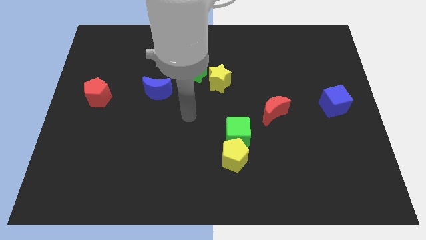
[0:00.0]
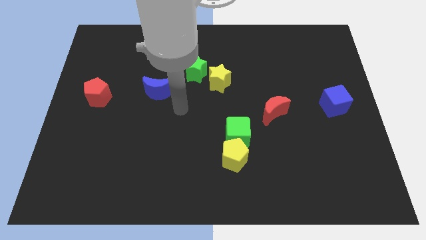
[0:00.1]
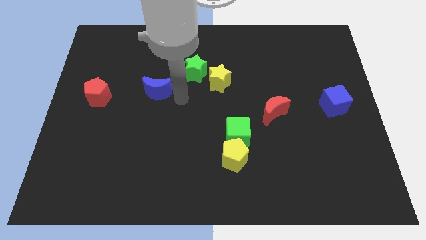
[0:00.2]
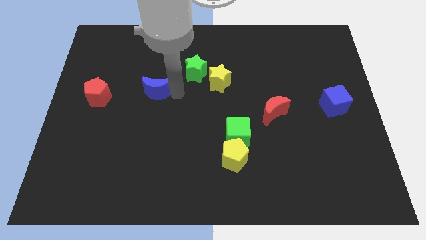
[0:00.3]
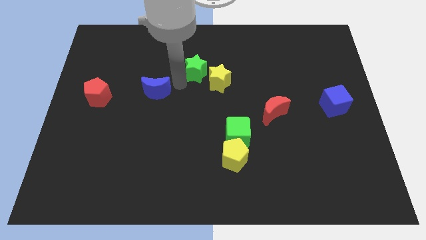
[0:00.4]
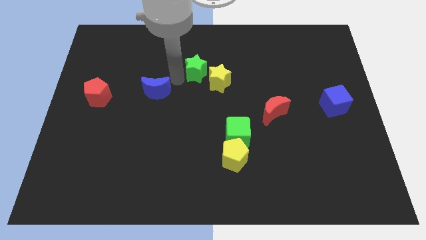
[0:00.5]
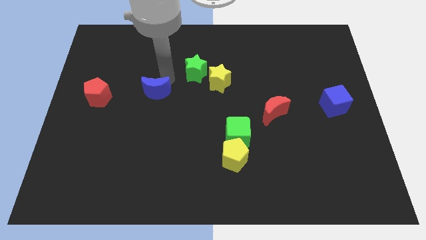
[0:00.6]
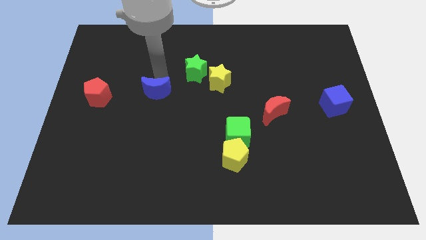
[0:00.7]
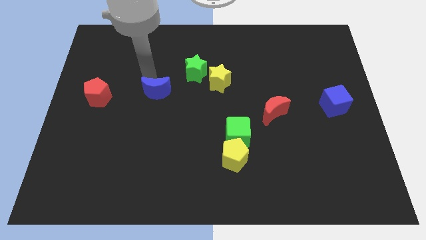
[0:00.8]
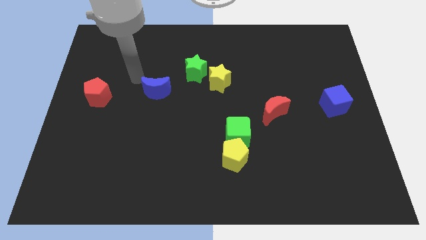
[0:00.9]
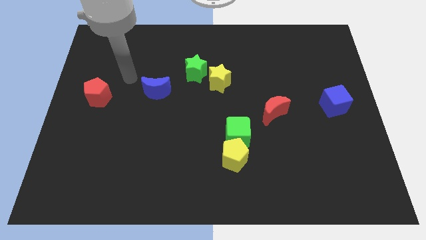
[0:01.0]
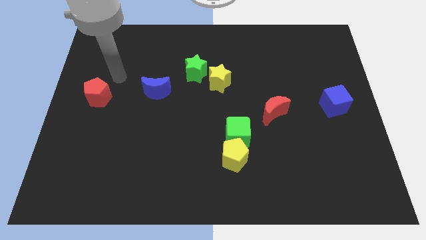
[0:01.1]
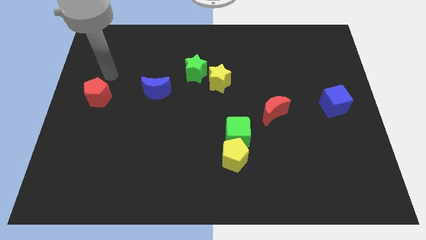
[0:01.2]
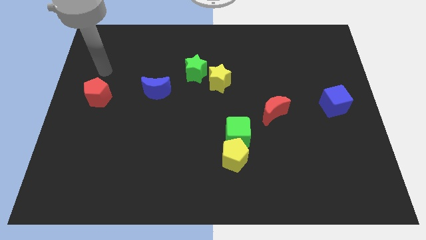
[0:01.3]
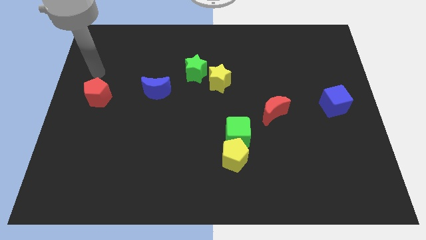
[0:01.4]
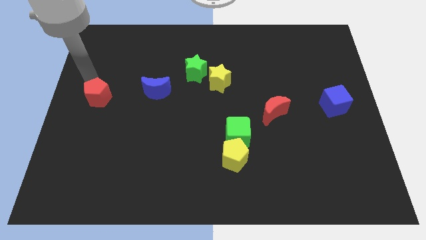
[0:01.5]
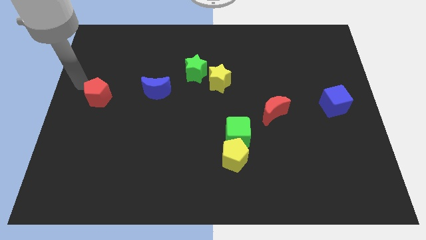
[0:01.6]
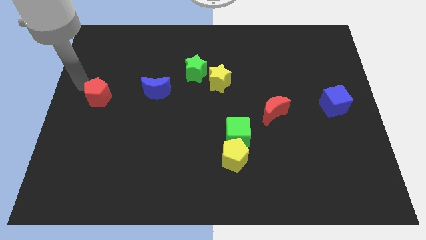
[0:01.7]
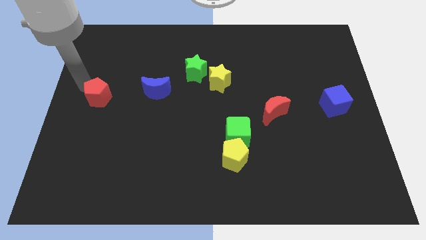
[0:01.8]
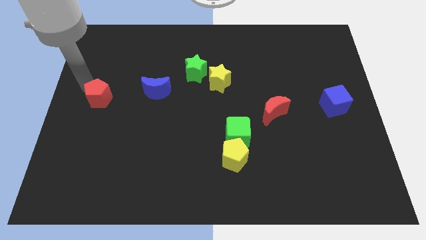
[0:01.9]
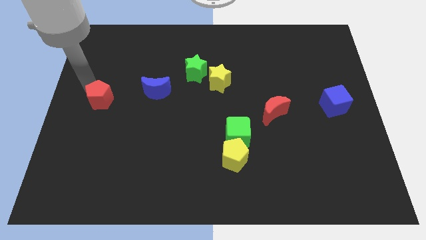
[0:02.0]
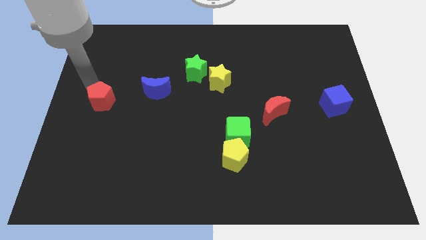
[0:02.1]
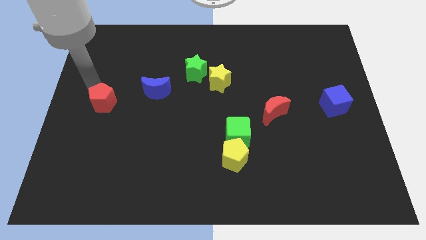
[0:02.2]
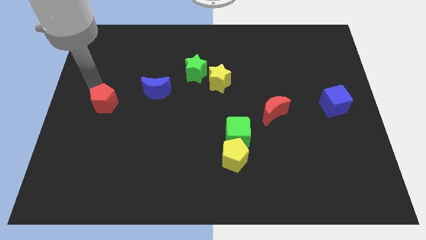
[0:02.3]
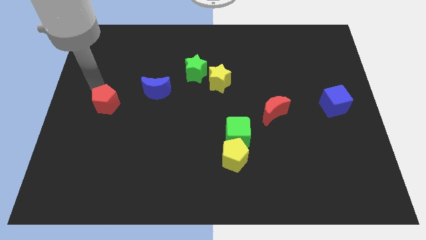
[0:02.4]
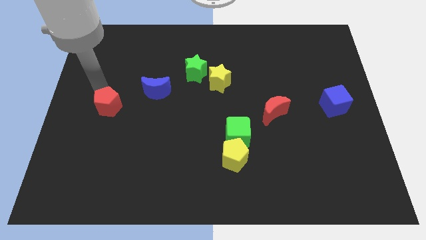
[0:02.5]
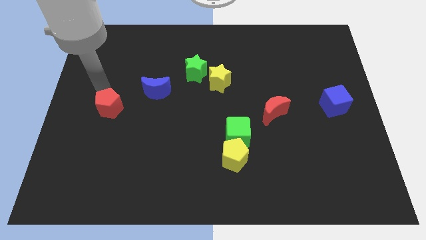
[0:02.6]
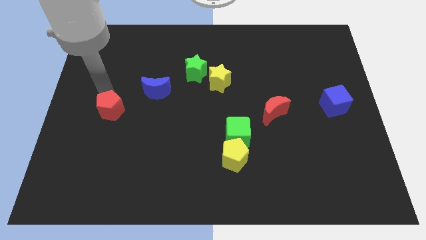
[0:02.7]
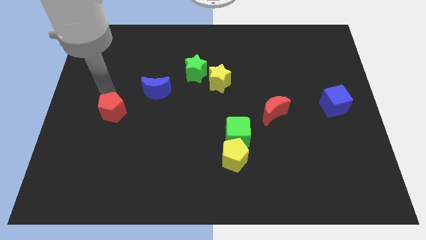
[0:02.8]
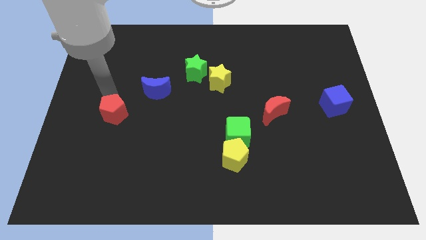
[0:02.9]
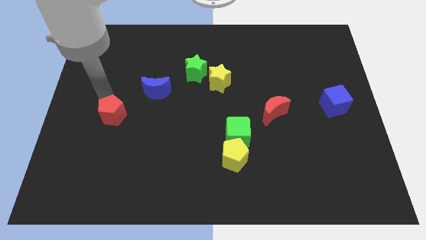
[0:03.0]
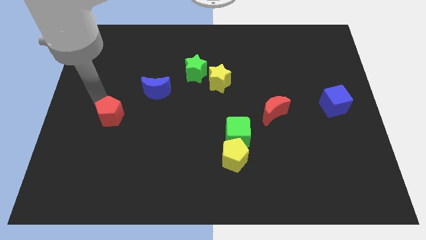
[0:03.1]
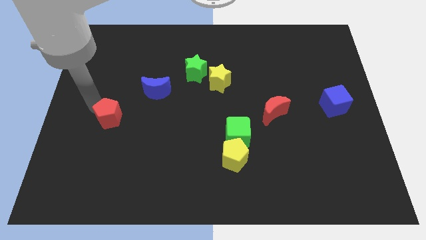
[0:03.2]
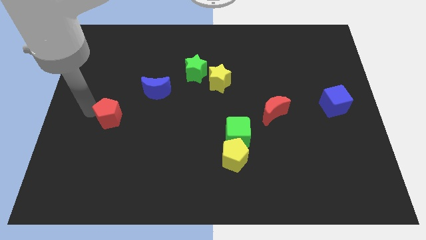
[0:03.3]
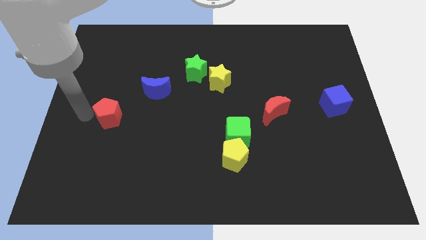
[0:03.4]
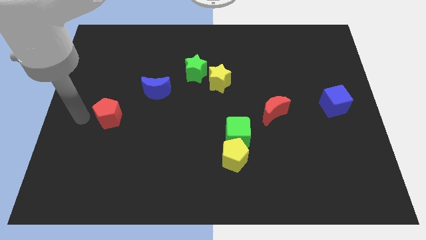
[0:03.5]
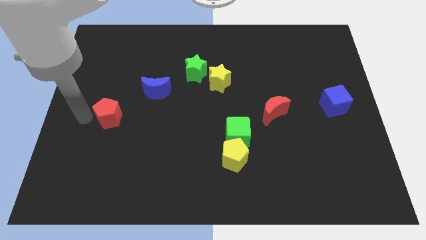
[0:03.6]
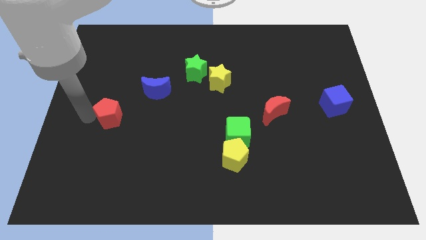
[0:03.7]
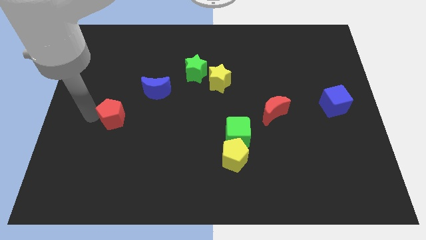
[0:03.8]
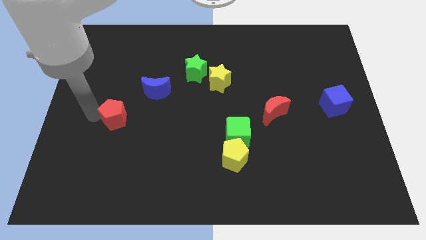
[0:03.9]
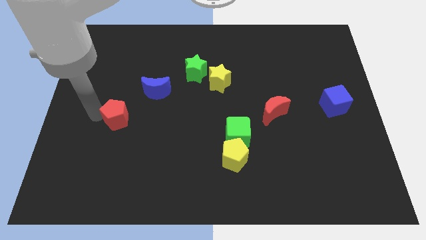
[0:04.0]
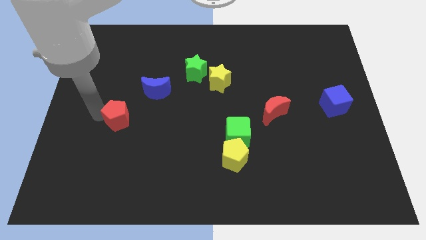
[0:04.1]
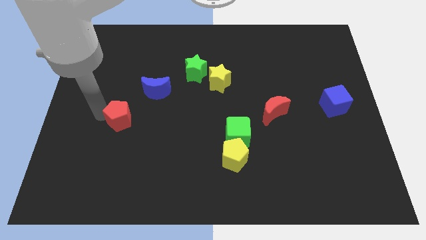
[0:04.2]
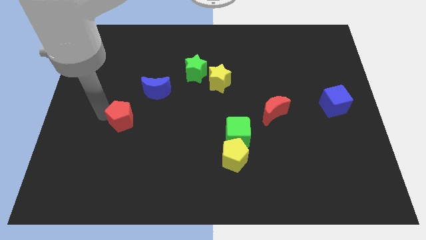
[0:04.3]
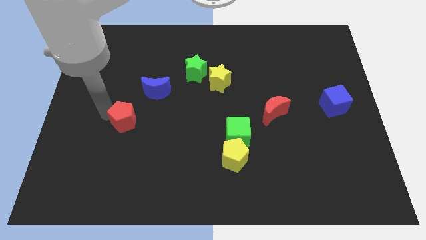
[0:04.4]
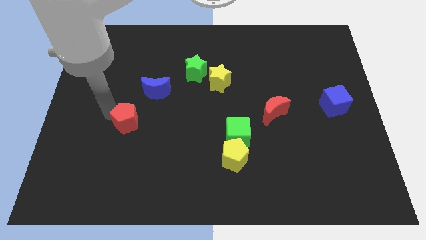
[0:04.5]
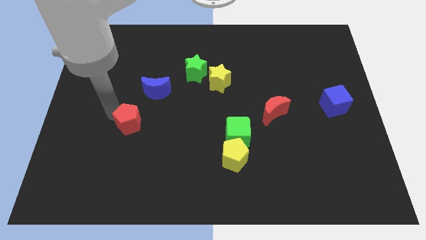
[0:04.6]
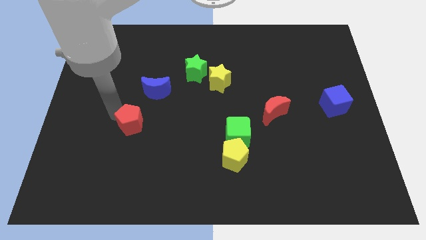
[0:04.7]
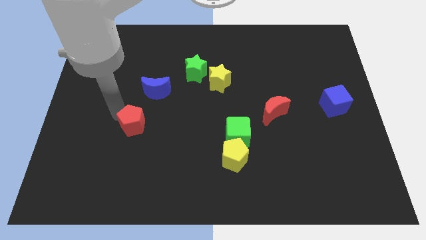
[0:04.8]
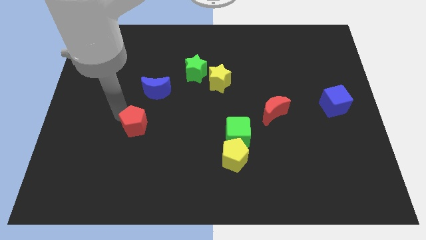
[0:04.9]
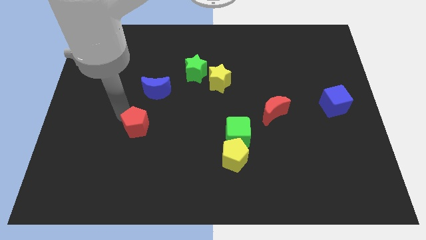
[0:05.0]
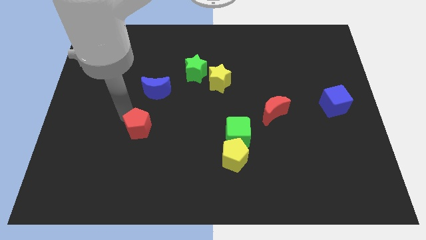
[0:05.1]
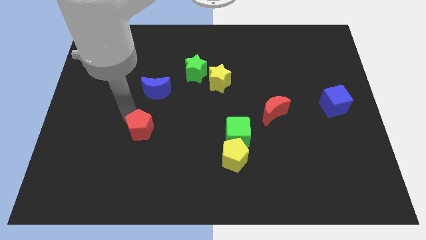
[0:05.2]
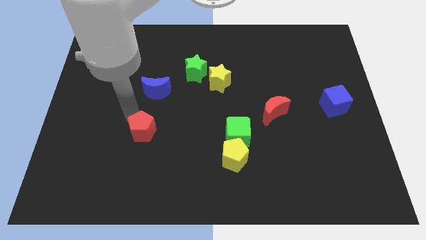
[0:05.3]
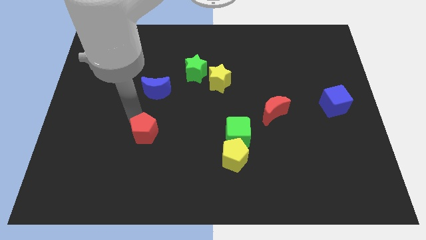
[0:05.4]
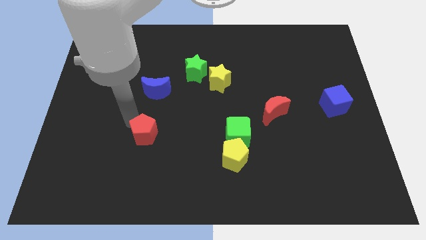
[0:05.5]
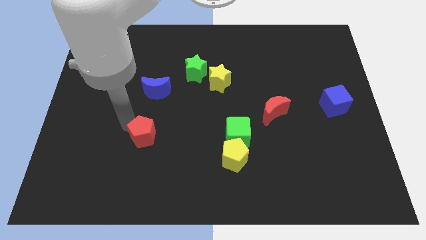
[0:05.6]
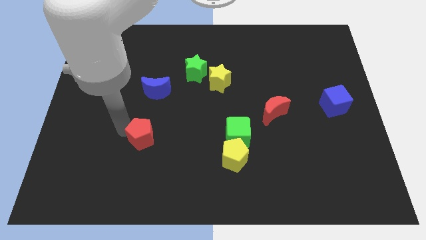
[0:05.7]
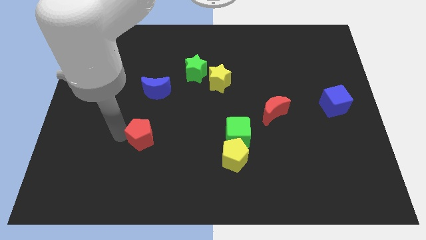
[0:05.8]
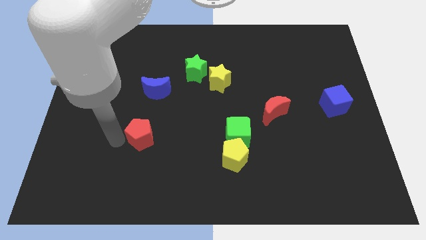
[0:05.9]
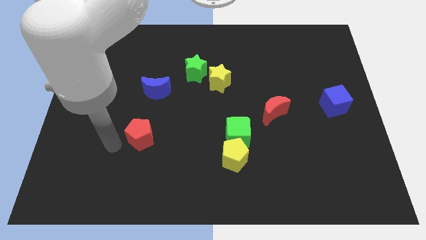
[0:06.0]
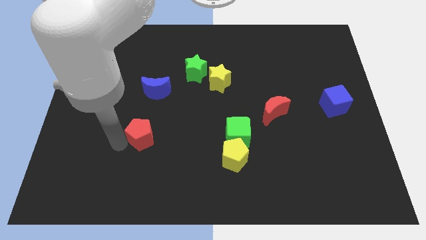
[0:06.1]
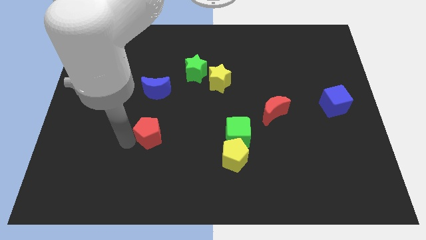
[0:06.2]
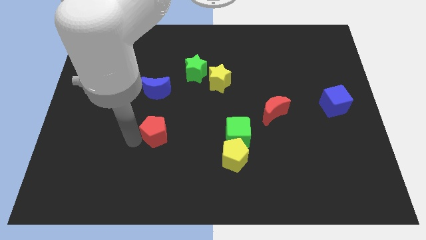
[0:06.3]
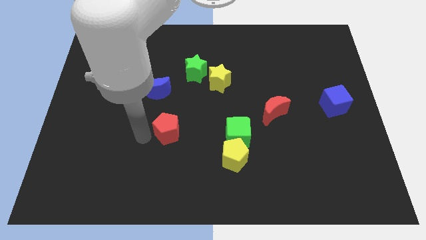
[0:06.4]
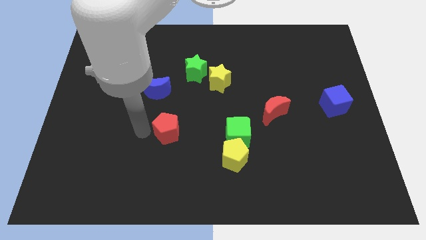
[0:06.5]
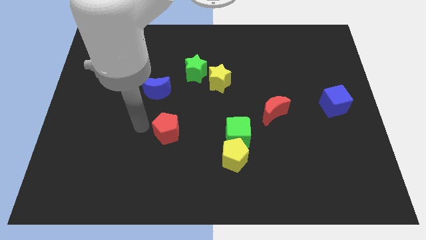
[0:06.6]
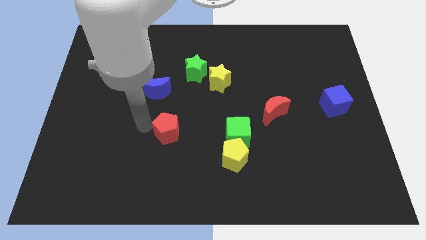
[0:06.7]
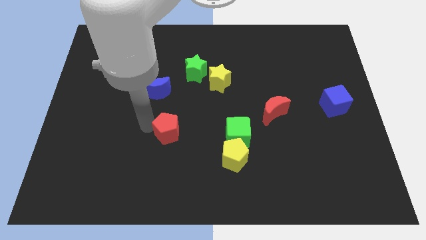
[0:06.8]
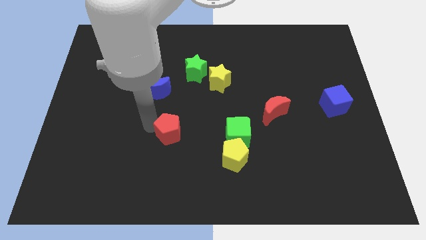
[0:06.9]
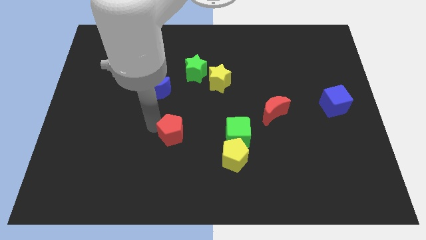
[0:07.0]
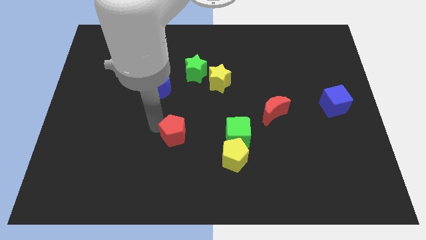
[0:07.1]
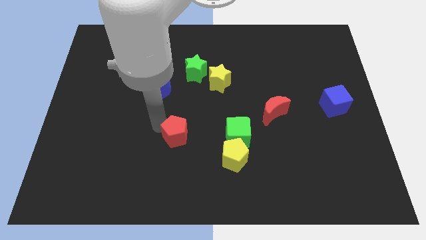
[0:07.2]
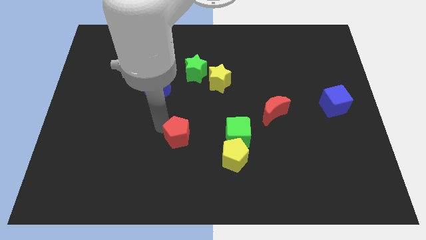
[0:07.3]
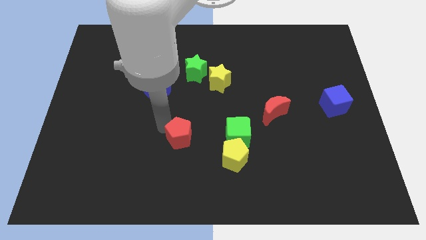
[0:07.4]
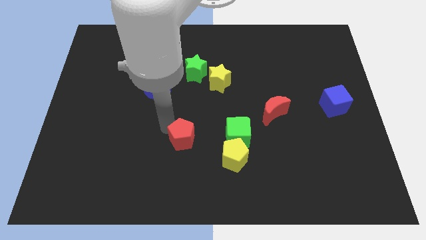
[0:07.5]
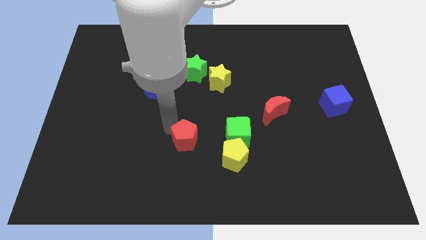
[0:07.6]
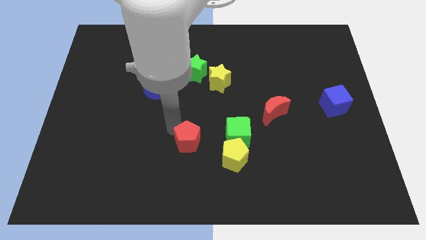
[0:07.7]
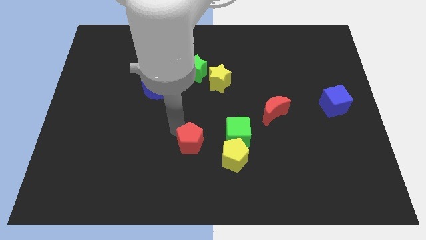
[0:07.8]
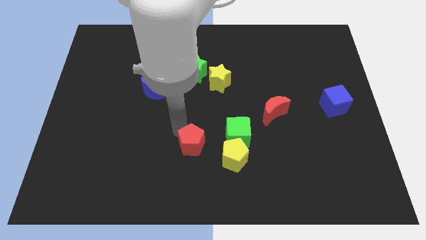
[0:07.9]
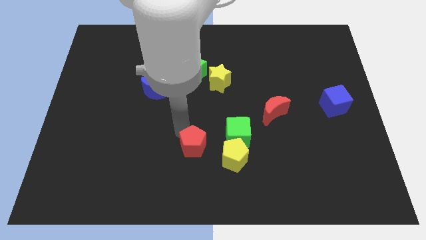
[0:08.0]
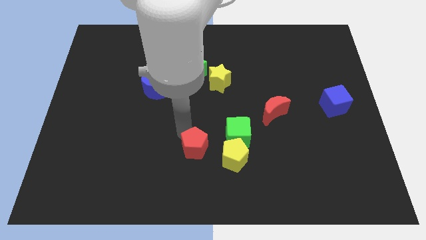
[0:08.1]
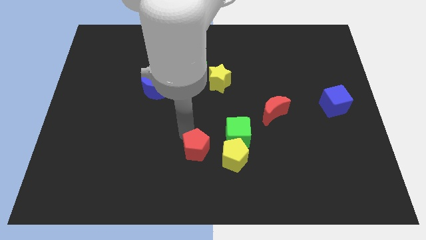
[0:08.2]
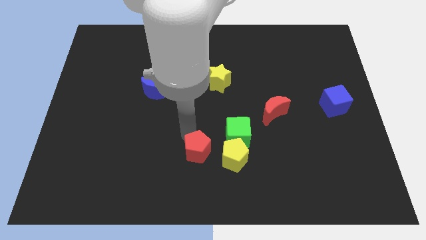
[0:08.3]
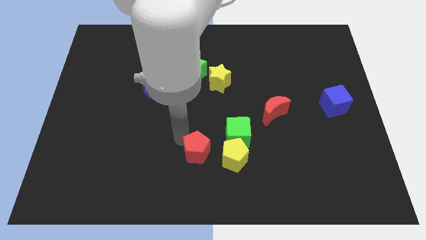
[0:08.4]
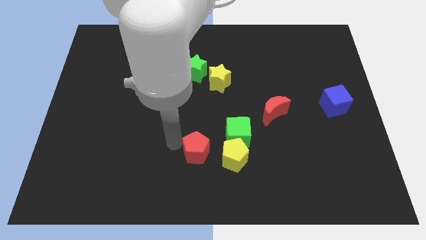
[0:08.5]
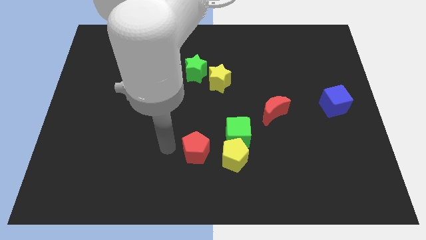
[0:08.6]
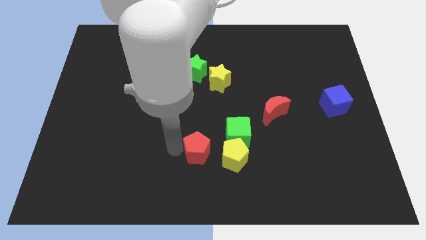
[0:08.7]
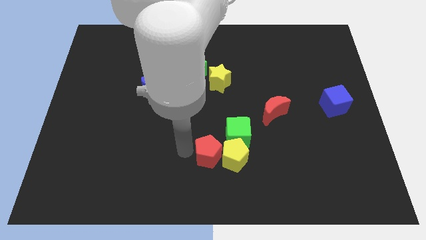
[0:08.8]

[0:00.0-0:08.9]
push the red pentagon to the yellow pentagon
